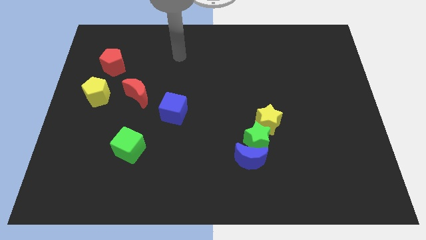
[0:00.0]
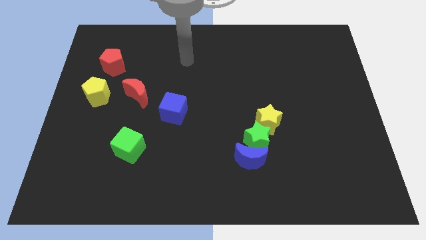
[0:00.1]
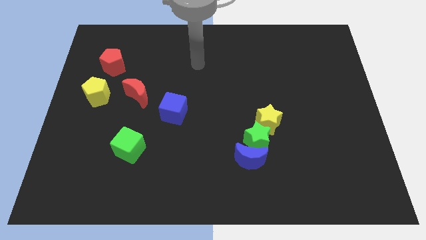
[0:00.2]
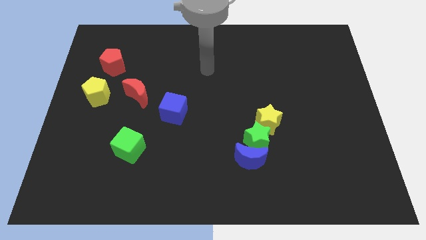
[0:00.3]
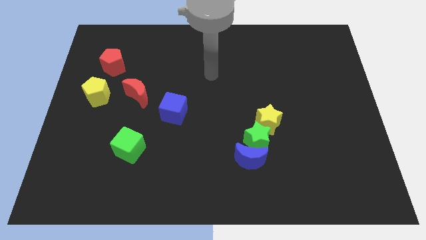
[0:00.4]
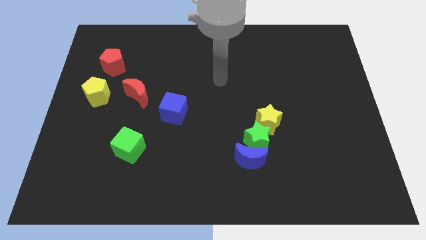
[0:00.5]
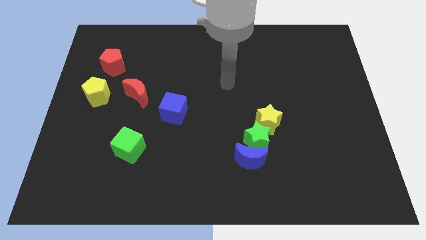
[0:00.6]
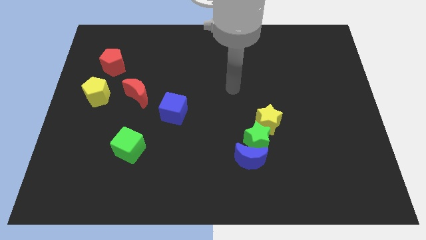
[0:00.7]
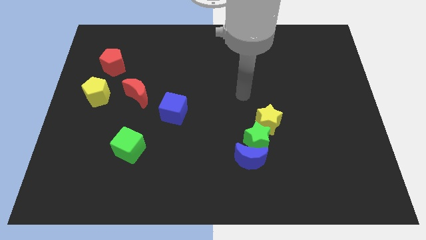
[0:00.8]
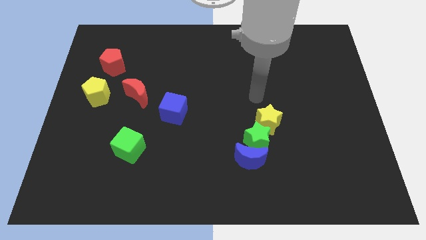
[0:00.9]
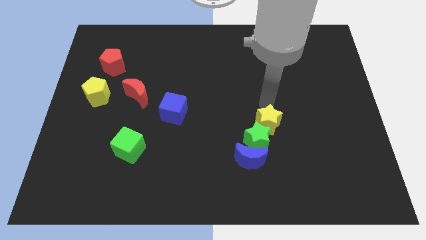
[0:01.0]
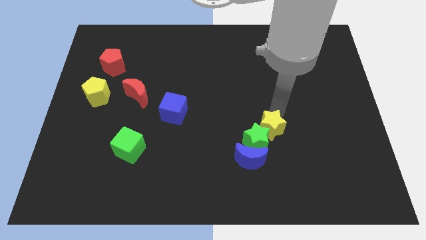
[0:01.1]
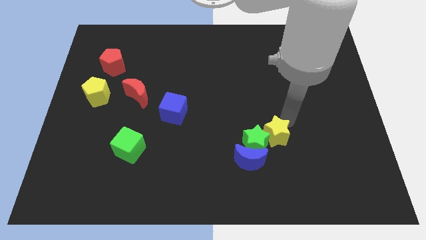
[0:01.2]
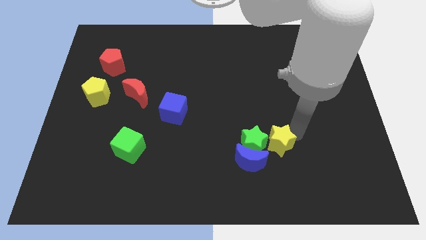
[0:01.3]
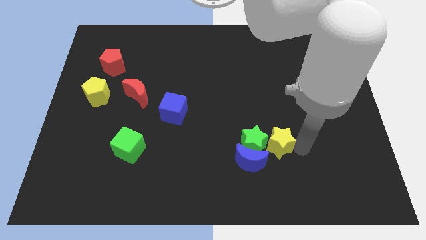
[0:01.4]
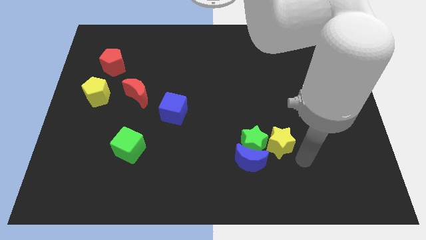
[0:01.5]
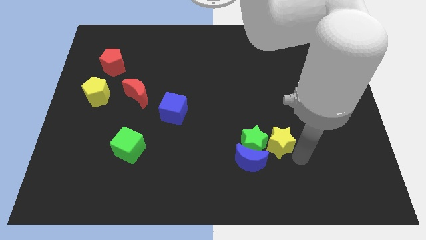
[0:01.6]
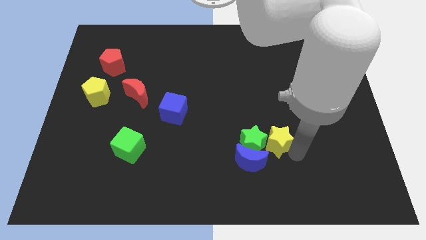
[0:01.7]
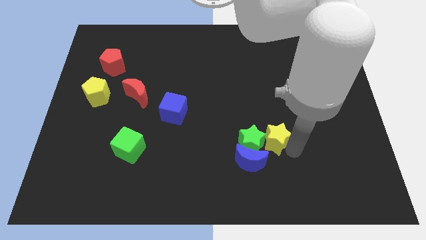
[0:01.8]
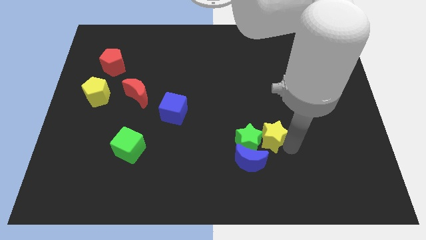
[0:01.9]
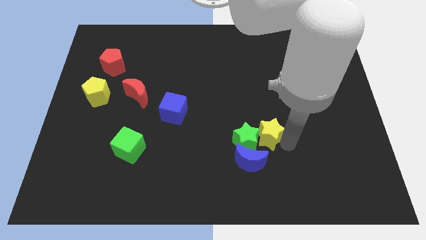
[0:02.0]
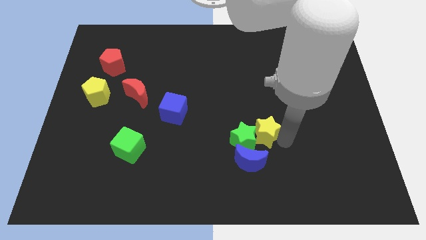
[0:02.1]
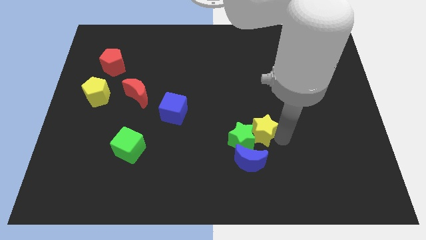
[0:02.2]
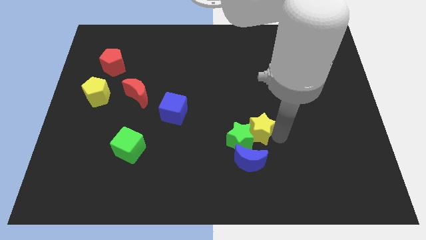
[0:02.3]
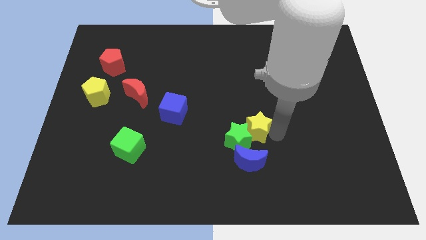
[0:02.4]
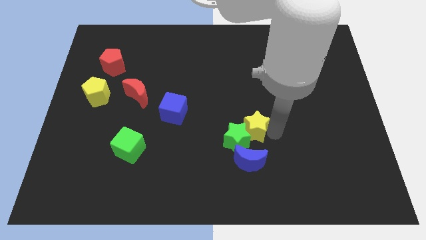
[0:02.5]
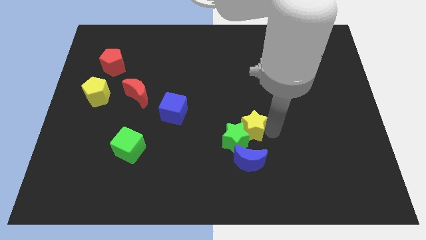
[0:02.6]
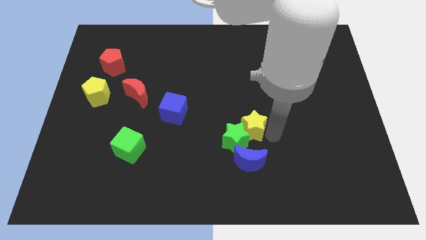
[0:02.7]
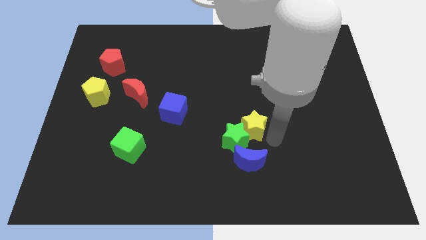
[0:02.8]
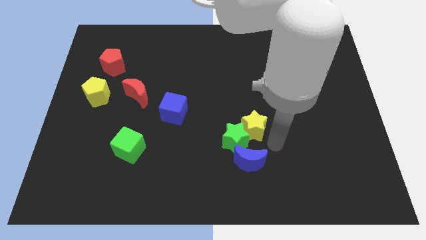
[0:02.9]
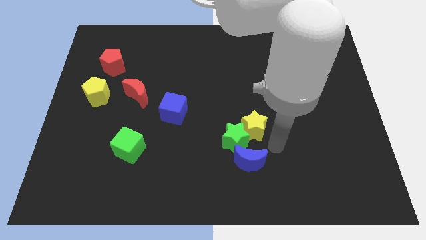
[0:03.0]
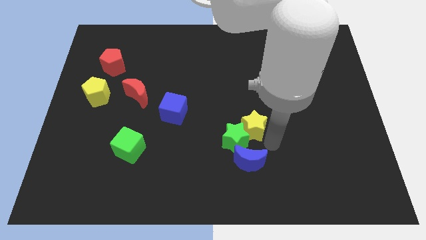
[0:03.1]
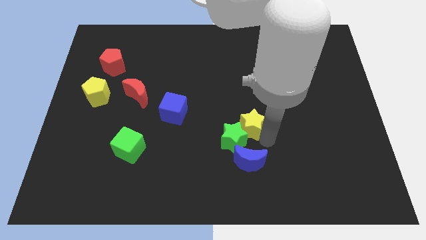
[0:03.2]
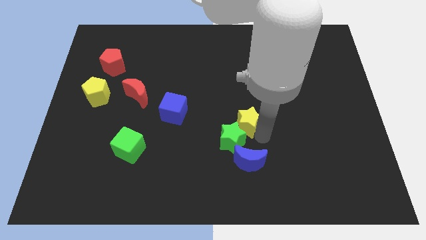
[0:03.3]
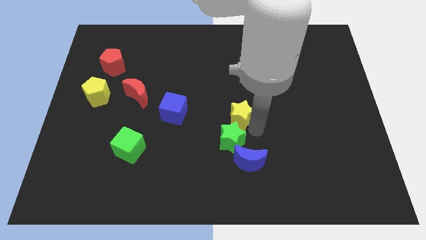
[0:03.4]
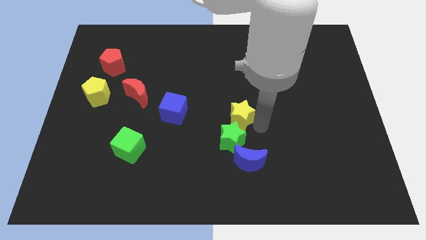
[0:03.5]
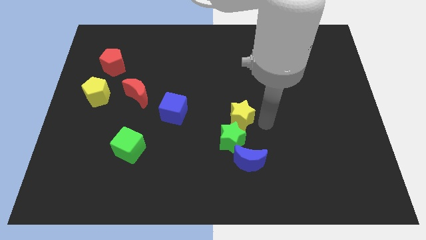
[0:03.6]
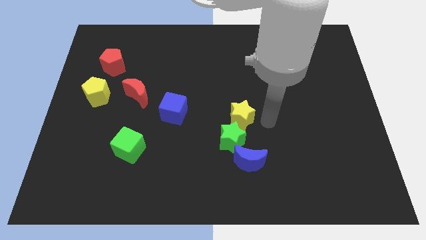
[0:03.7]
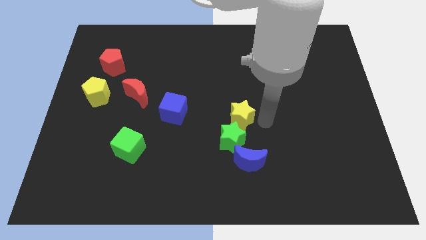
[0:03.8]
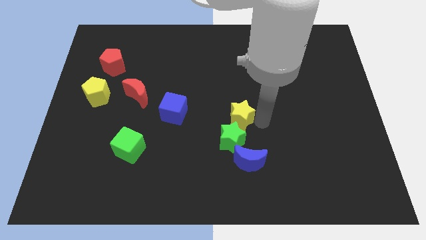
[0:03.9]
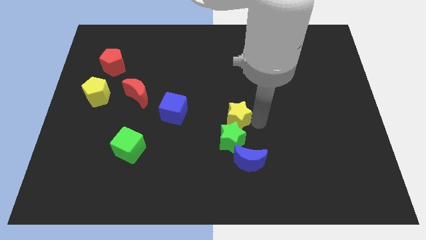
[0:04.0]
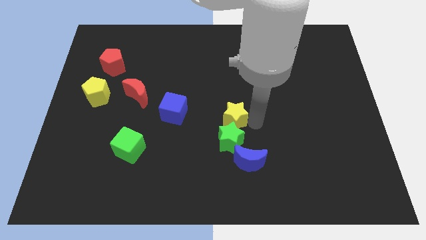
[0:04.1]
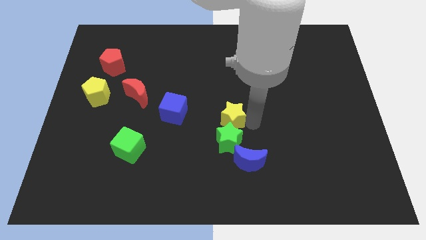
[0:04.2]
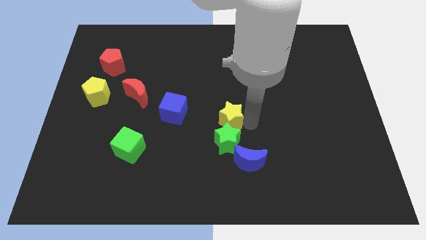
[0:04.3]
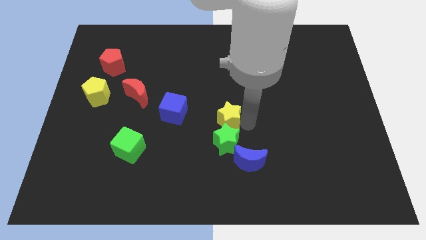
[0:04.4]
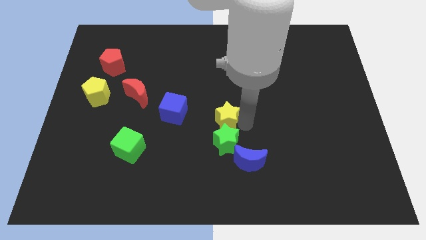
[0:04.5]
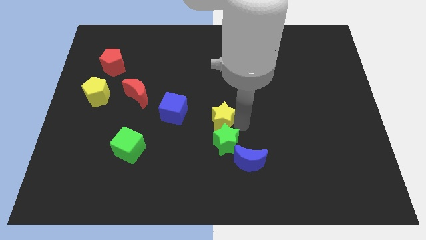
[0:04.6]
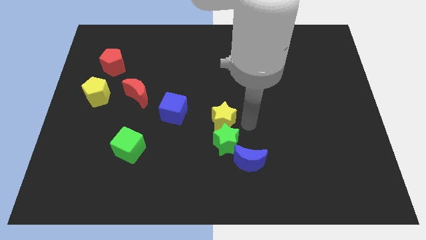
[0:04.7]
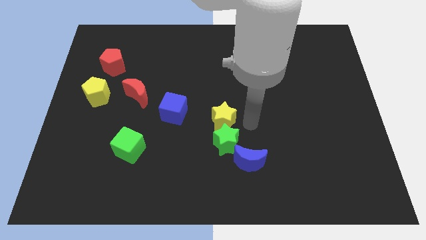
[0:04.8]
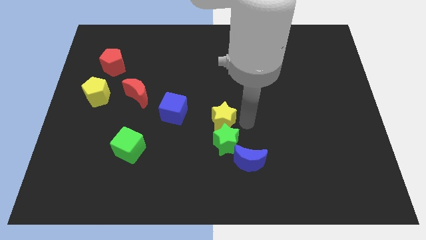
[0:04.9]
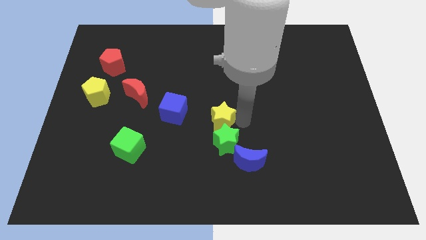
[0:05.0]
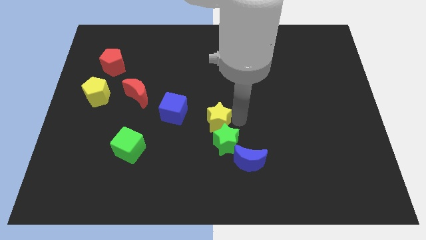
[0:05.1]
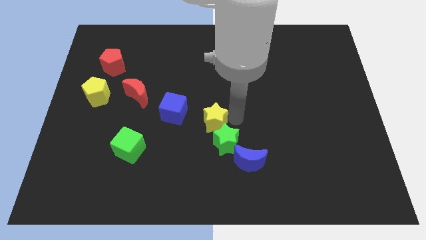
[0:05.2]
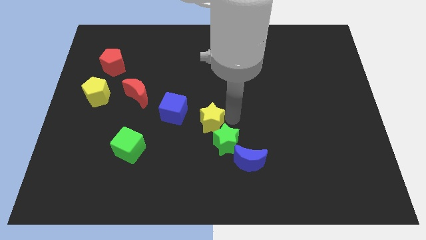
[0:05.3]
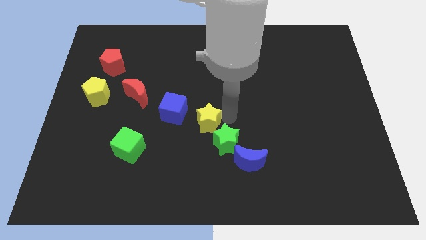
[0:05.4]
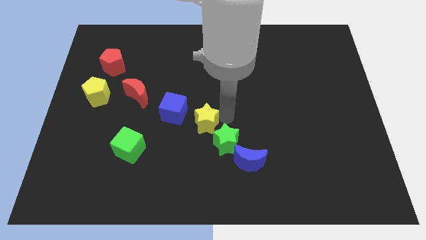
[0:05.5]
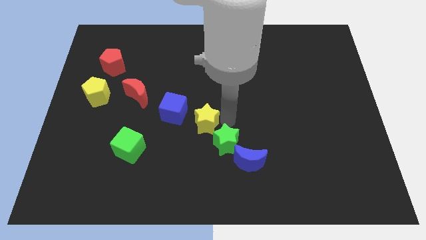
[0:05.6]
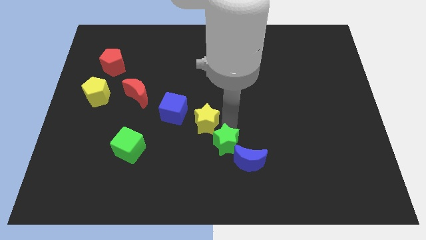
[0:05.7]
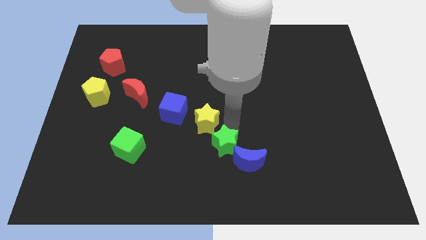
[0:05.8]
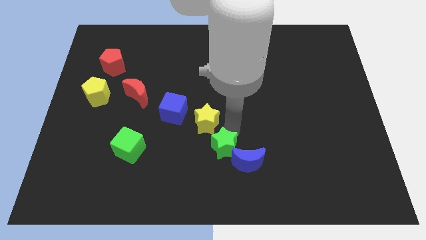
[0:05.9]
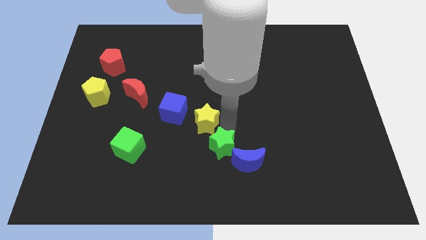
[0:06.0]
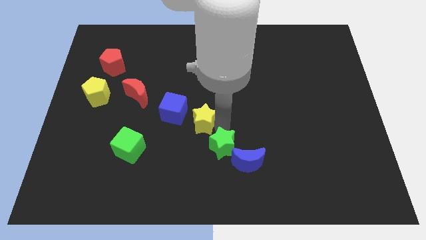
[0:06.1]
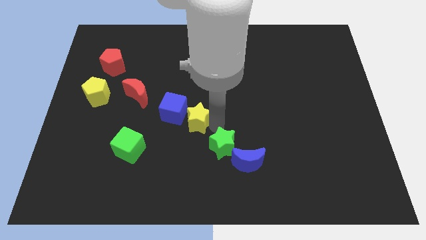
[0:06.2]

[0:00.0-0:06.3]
slide the yellow star towards the blue cube
